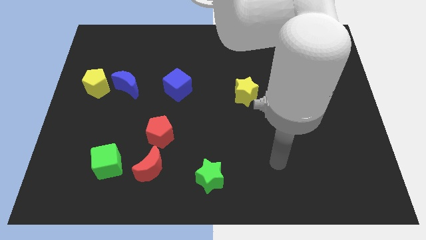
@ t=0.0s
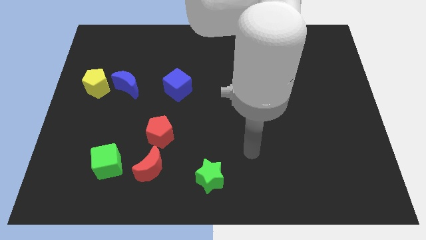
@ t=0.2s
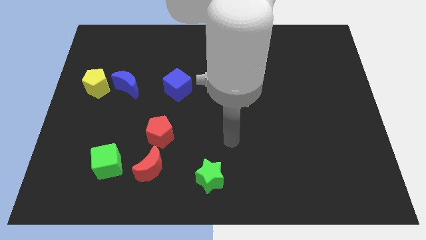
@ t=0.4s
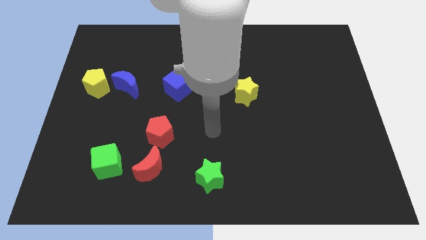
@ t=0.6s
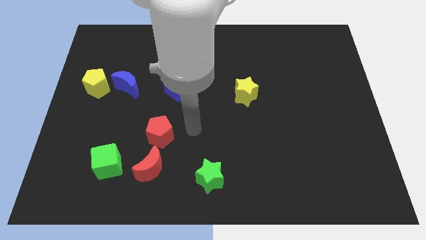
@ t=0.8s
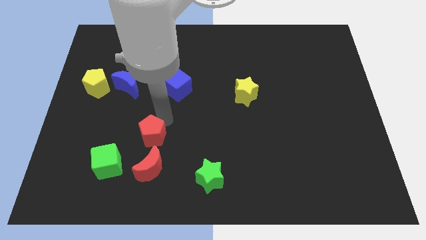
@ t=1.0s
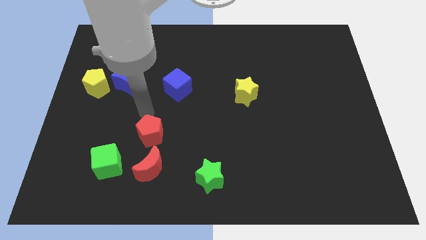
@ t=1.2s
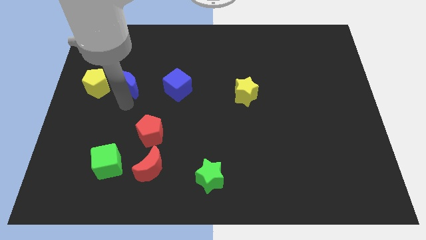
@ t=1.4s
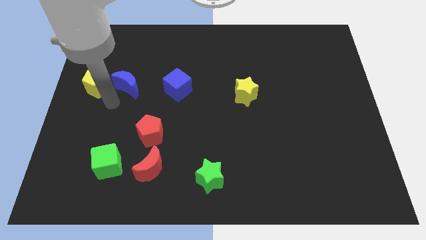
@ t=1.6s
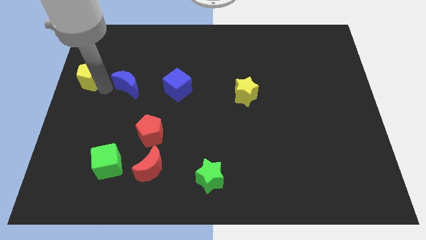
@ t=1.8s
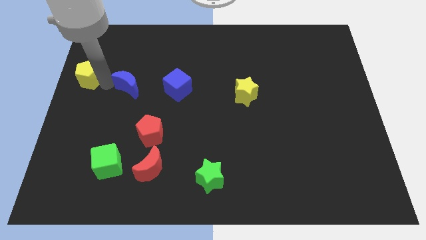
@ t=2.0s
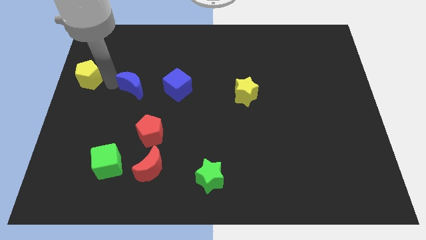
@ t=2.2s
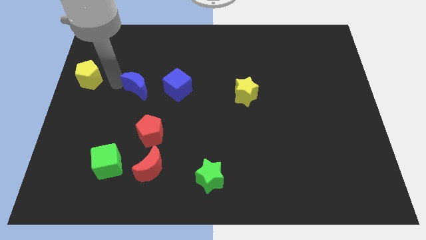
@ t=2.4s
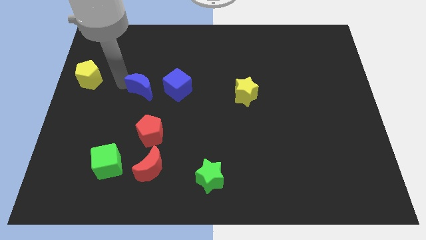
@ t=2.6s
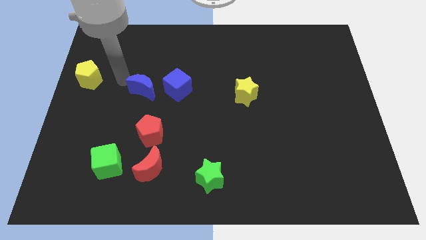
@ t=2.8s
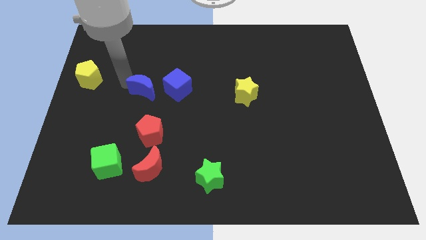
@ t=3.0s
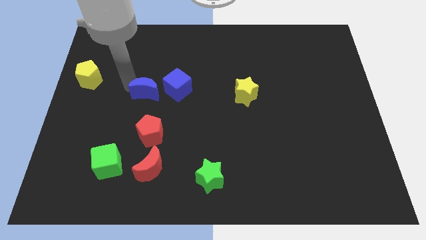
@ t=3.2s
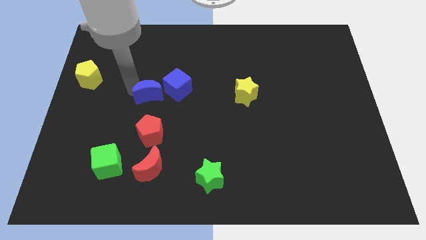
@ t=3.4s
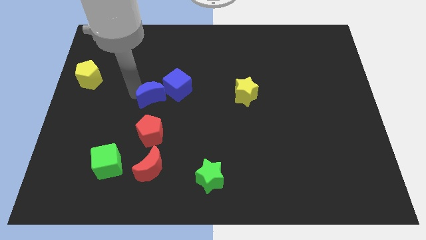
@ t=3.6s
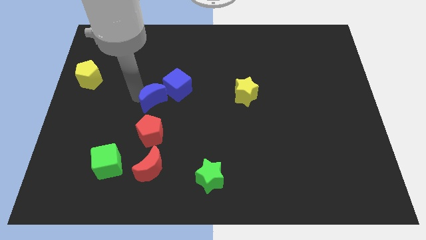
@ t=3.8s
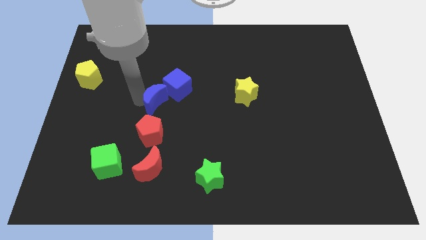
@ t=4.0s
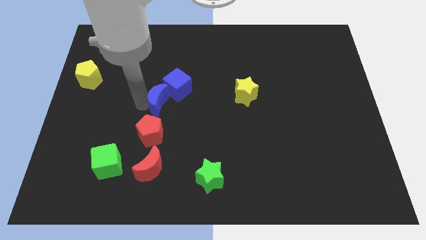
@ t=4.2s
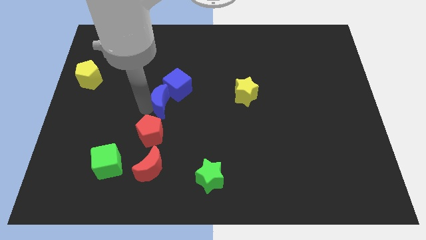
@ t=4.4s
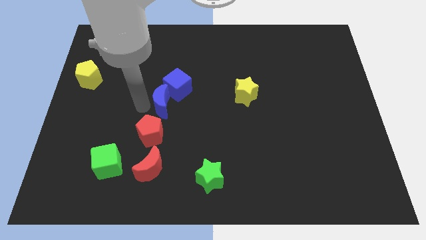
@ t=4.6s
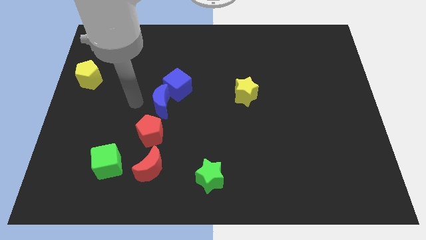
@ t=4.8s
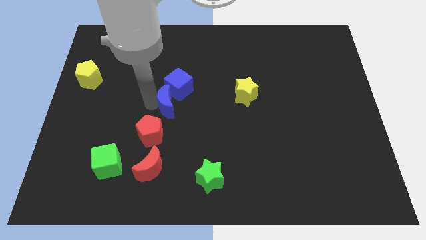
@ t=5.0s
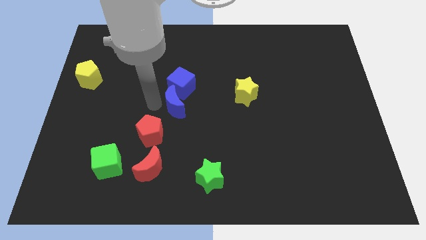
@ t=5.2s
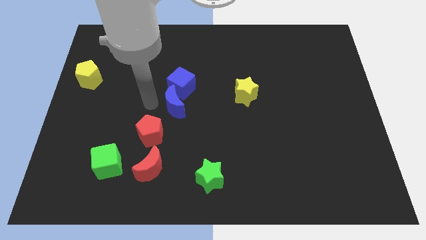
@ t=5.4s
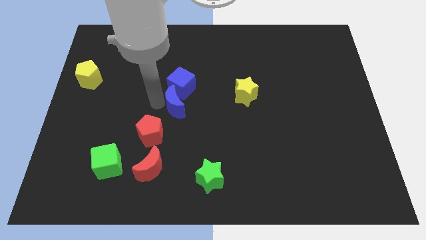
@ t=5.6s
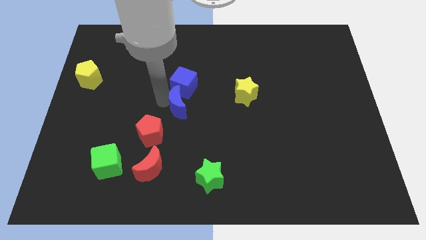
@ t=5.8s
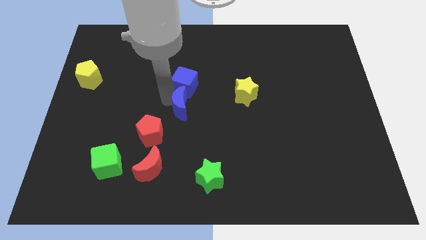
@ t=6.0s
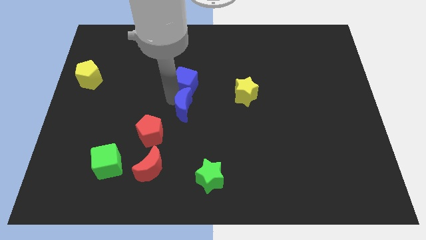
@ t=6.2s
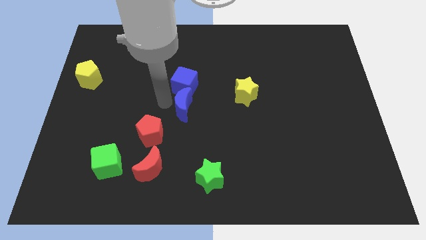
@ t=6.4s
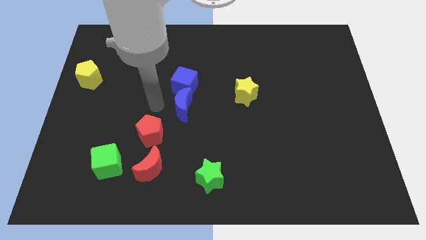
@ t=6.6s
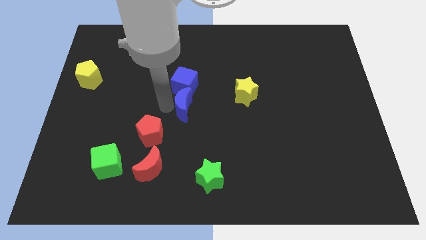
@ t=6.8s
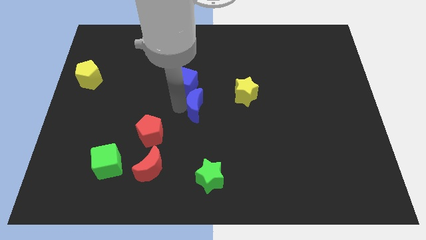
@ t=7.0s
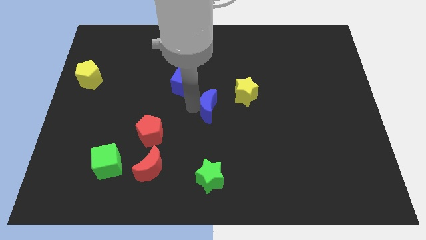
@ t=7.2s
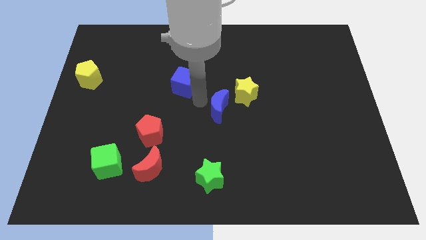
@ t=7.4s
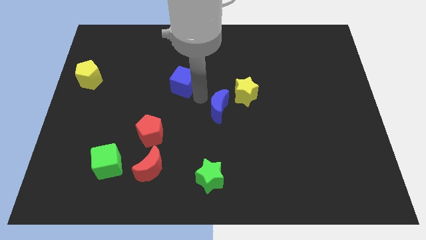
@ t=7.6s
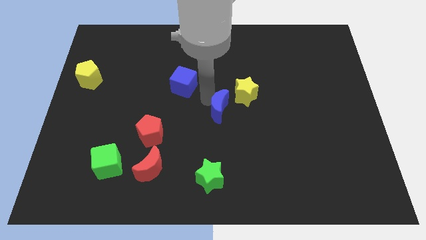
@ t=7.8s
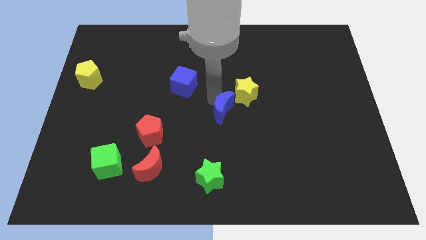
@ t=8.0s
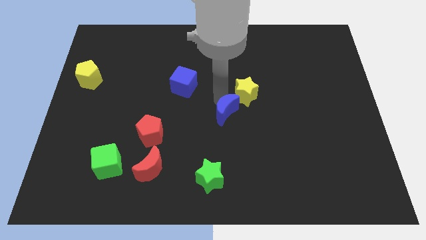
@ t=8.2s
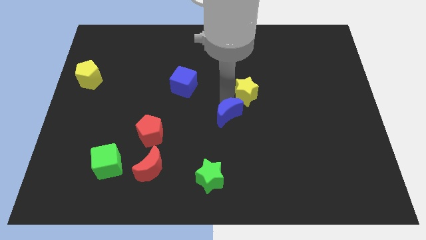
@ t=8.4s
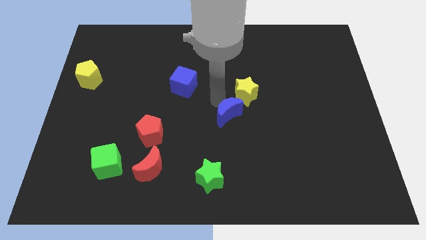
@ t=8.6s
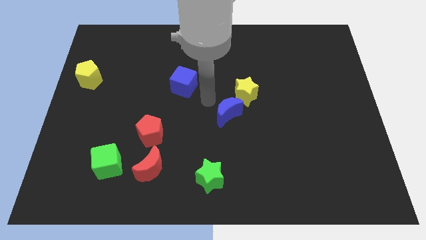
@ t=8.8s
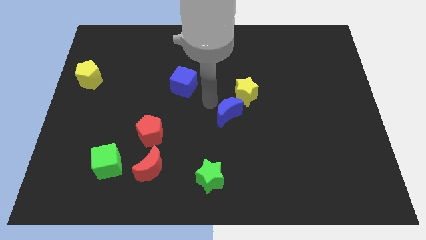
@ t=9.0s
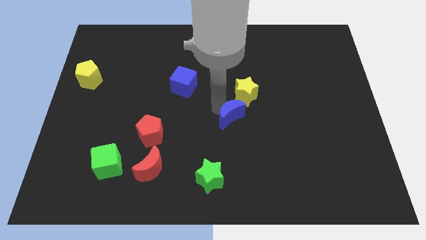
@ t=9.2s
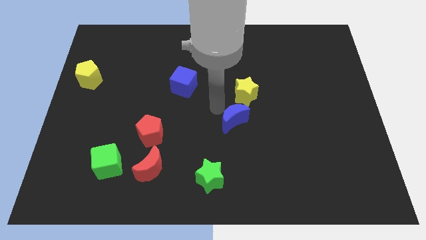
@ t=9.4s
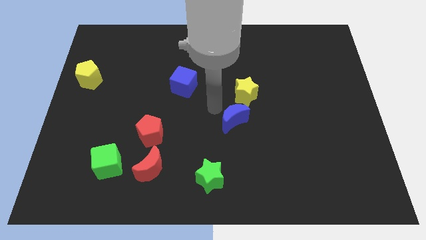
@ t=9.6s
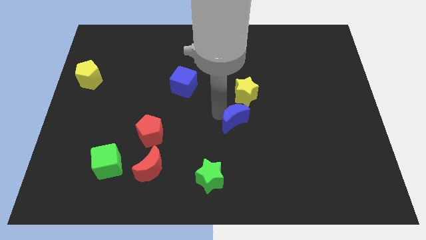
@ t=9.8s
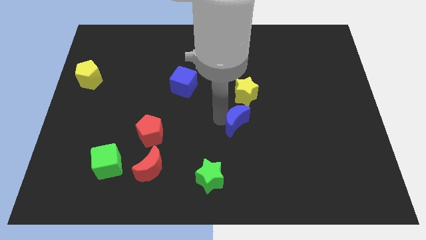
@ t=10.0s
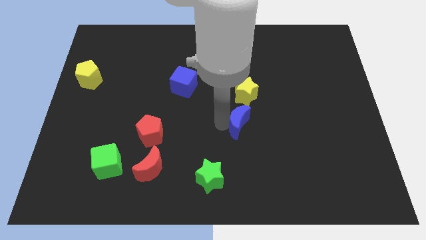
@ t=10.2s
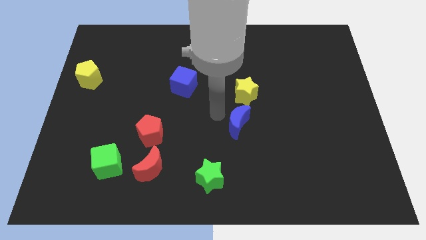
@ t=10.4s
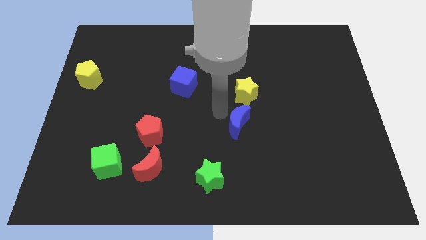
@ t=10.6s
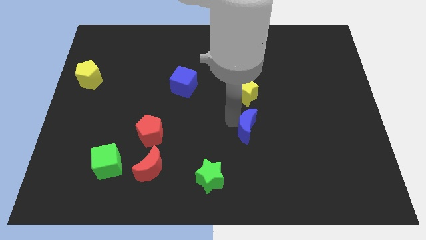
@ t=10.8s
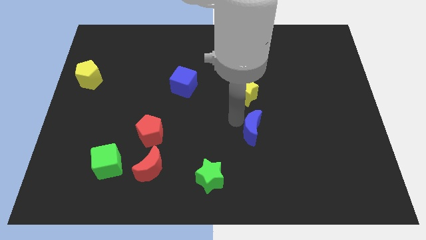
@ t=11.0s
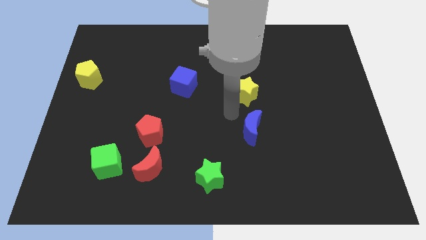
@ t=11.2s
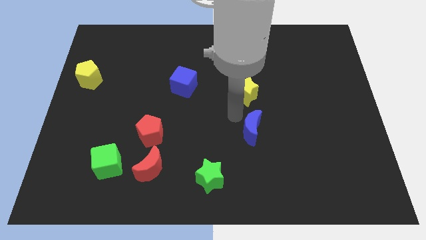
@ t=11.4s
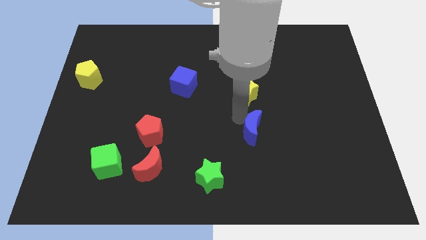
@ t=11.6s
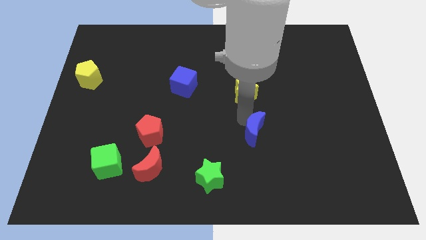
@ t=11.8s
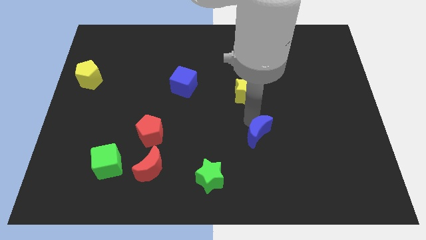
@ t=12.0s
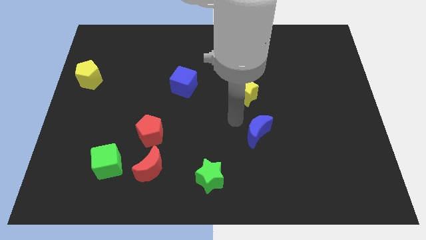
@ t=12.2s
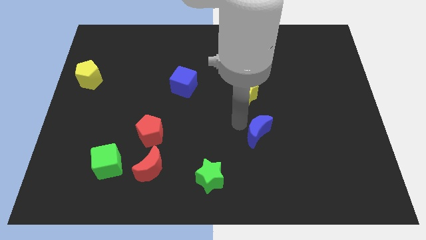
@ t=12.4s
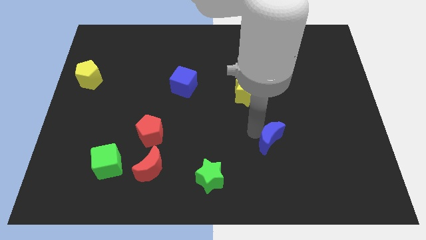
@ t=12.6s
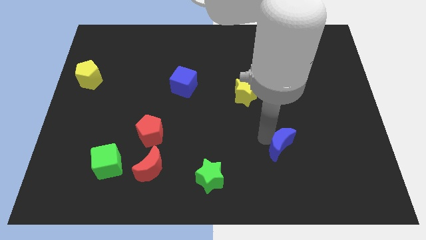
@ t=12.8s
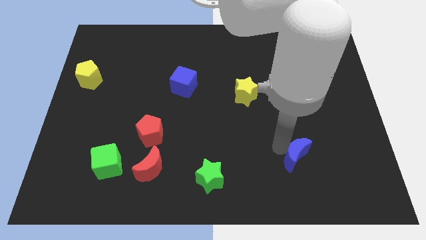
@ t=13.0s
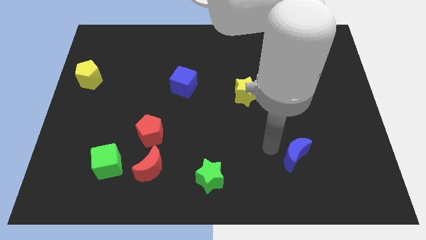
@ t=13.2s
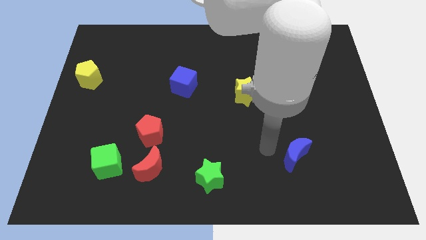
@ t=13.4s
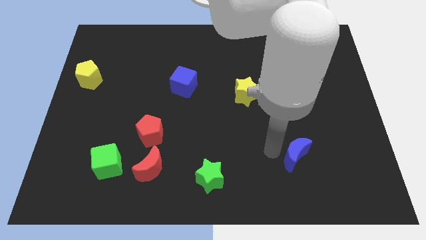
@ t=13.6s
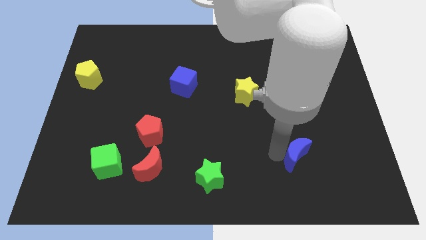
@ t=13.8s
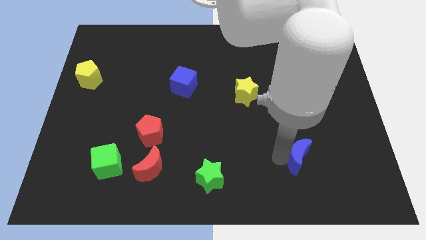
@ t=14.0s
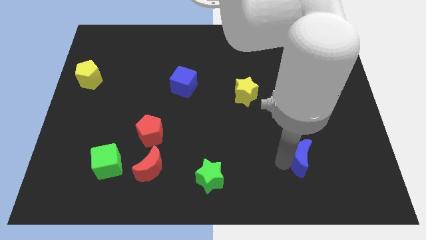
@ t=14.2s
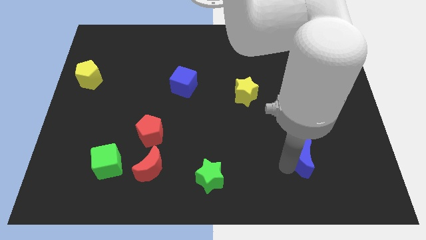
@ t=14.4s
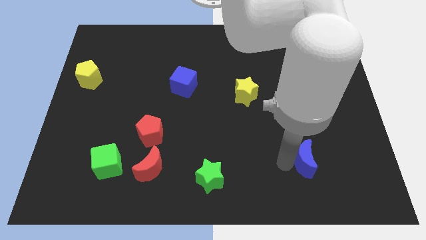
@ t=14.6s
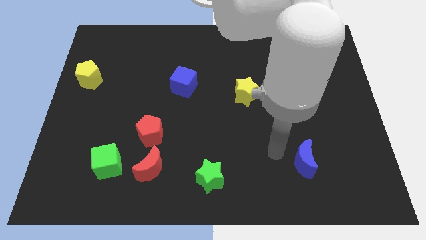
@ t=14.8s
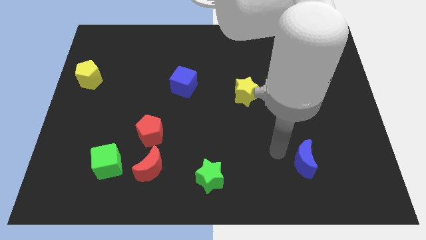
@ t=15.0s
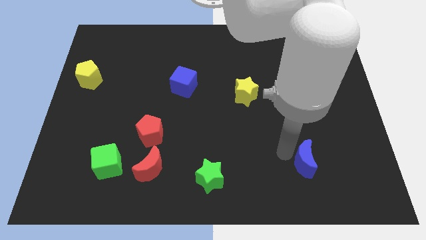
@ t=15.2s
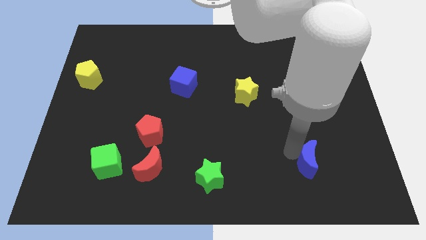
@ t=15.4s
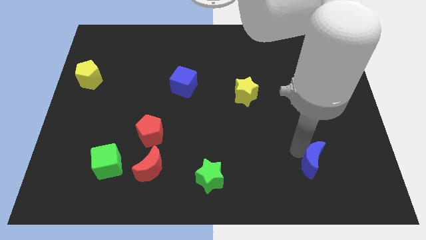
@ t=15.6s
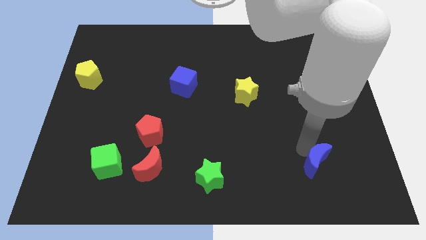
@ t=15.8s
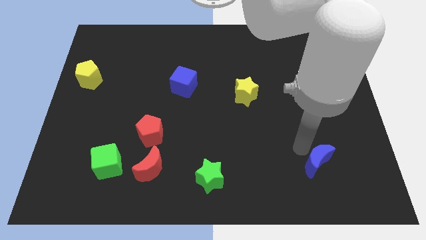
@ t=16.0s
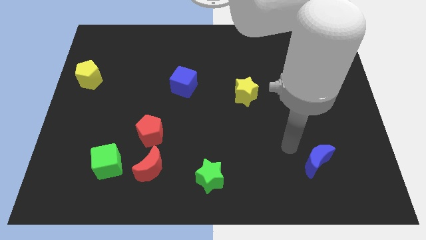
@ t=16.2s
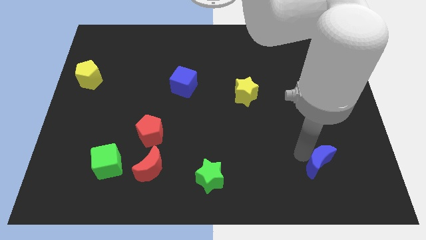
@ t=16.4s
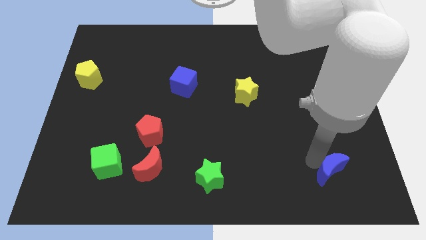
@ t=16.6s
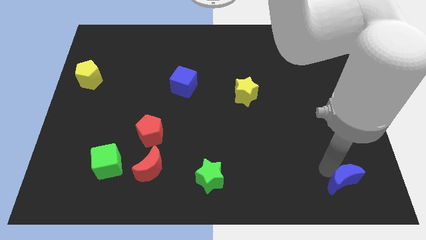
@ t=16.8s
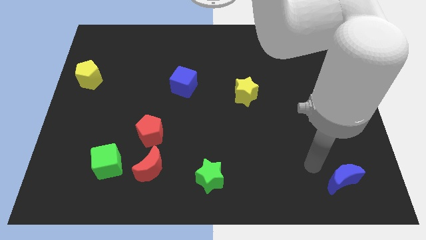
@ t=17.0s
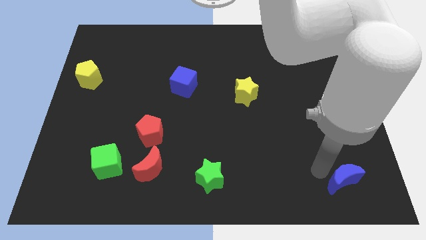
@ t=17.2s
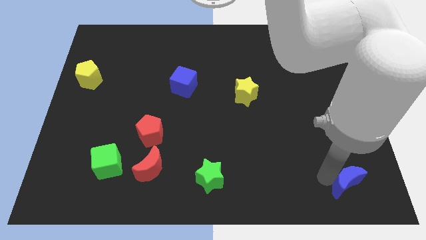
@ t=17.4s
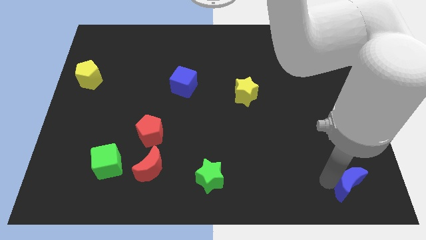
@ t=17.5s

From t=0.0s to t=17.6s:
put the blue moon to the bottom right corner
